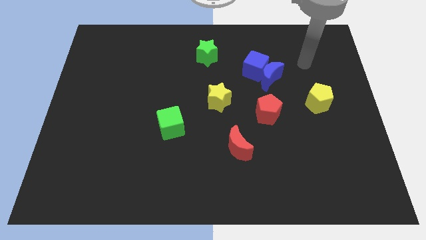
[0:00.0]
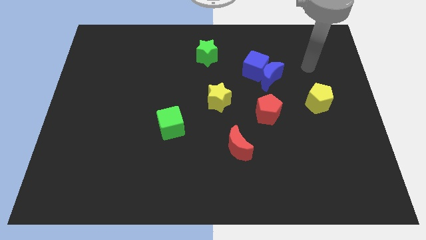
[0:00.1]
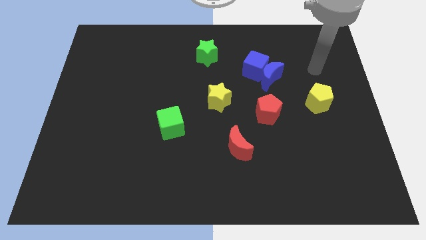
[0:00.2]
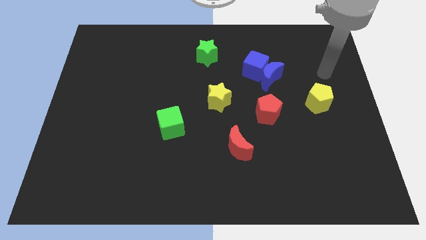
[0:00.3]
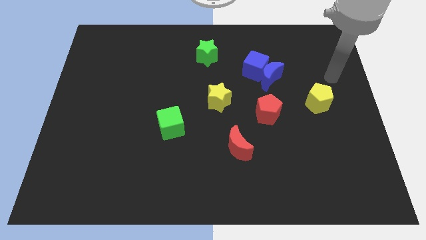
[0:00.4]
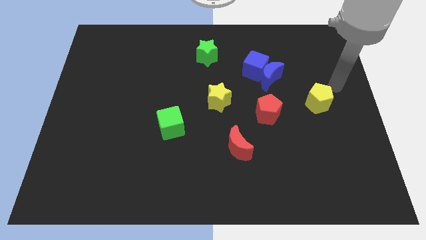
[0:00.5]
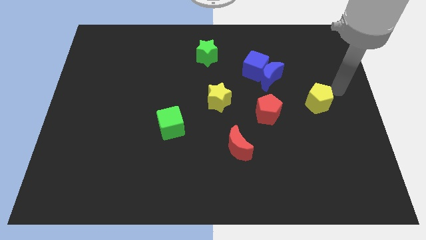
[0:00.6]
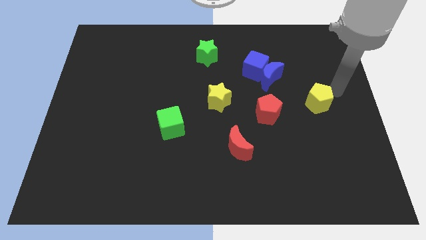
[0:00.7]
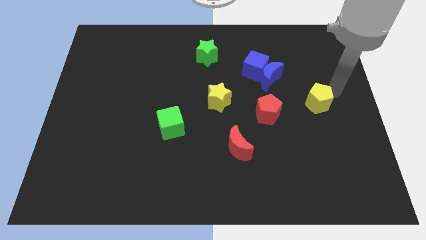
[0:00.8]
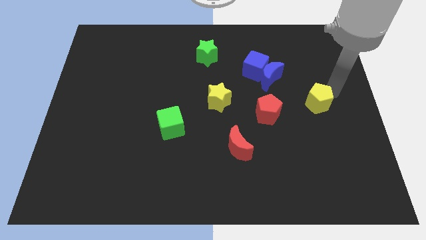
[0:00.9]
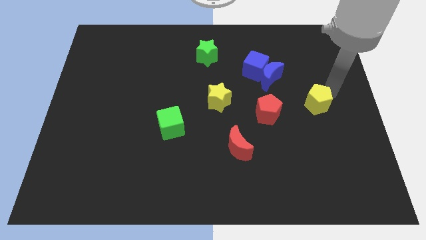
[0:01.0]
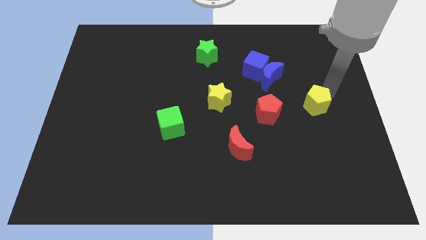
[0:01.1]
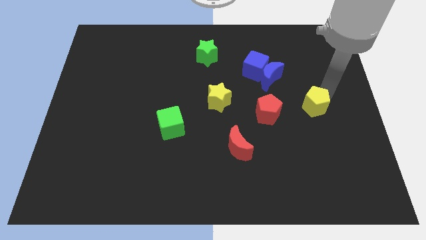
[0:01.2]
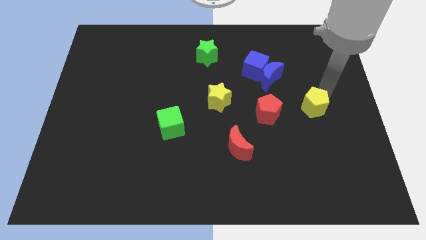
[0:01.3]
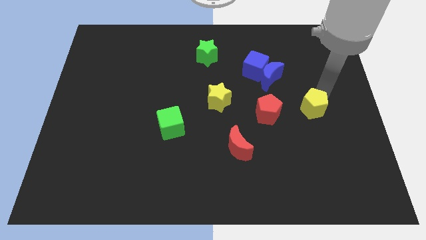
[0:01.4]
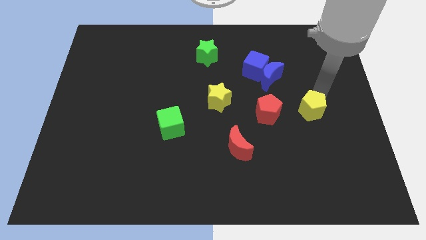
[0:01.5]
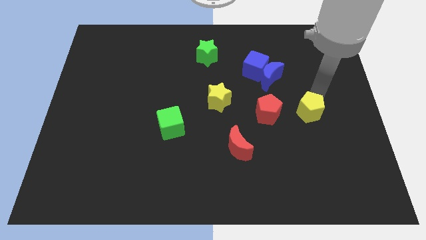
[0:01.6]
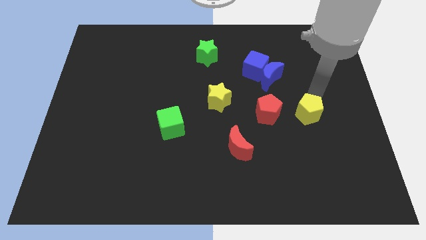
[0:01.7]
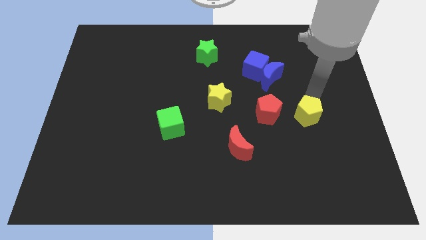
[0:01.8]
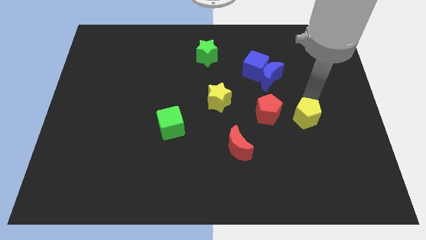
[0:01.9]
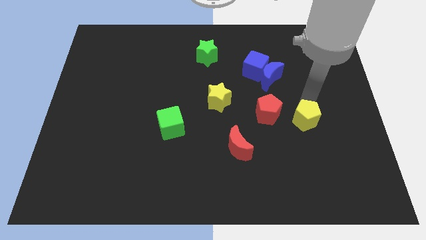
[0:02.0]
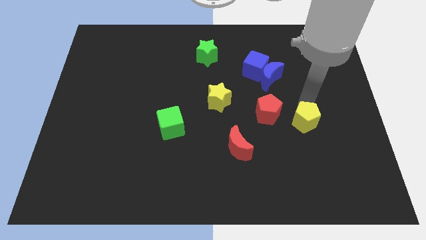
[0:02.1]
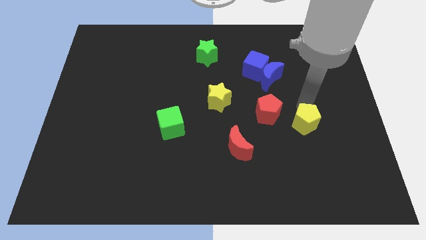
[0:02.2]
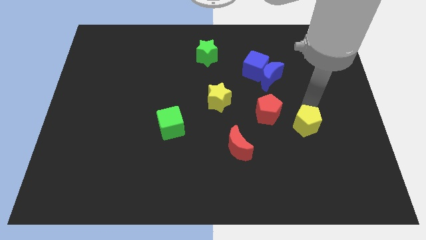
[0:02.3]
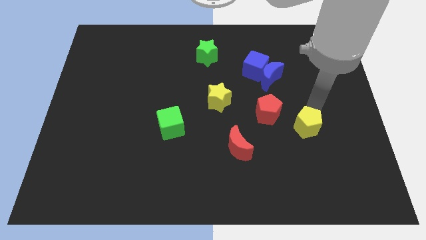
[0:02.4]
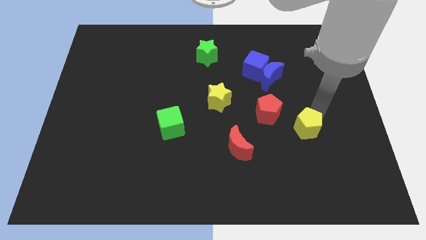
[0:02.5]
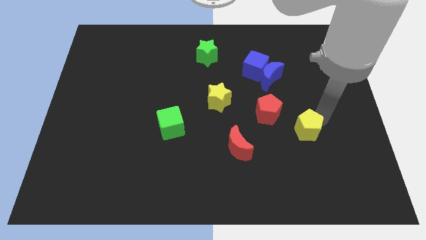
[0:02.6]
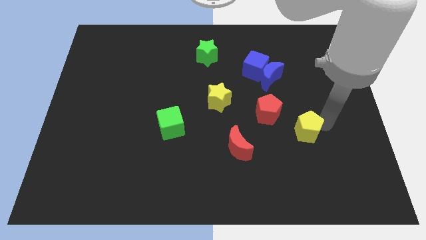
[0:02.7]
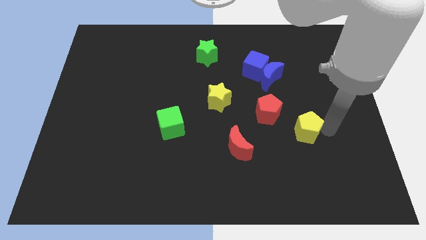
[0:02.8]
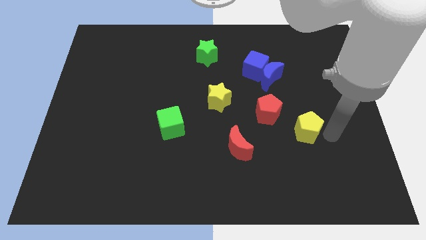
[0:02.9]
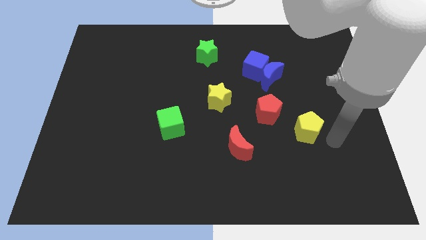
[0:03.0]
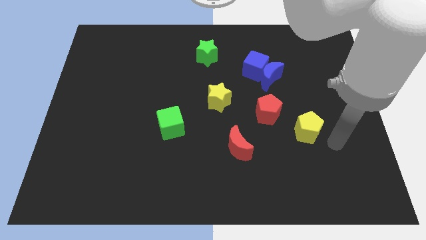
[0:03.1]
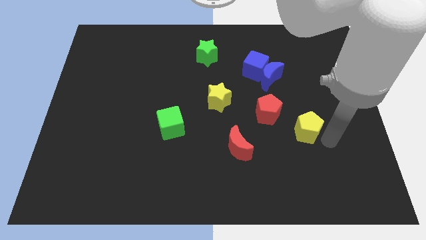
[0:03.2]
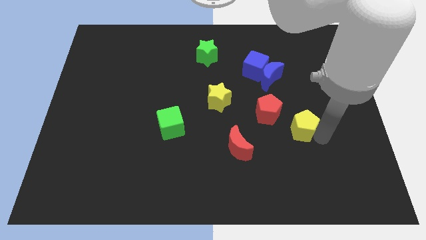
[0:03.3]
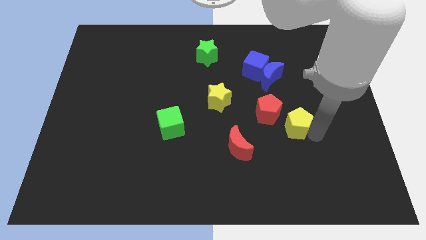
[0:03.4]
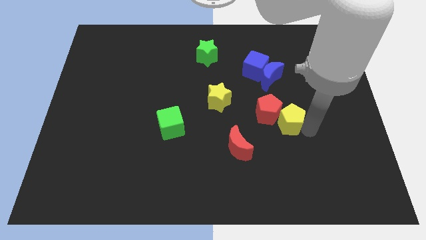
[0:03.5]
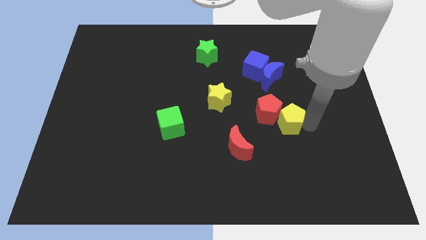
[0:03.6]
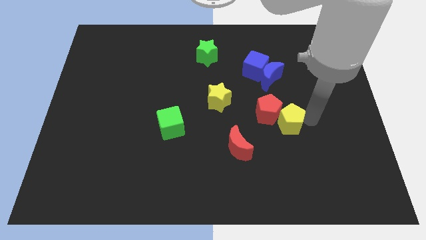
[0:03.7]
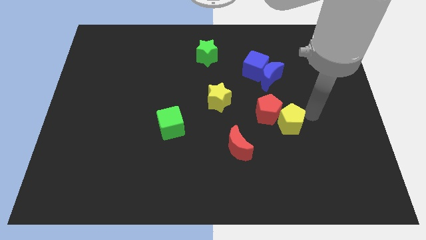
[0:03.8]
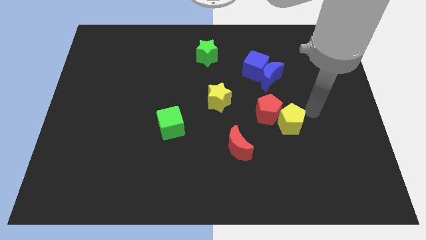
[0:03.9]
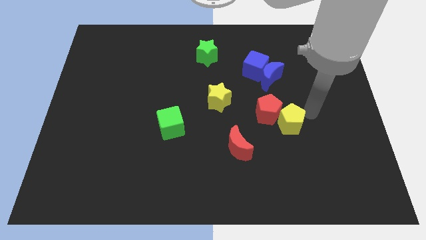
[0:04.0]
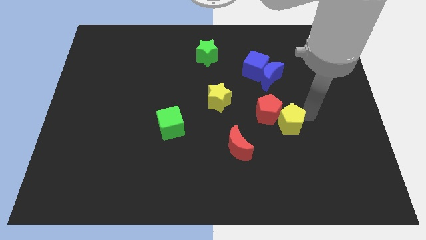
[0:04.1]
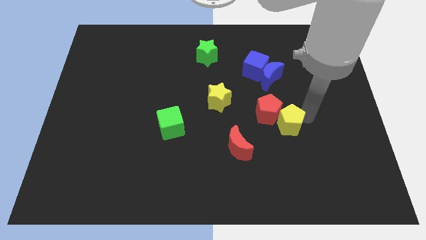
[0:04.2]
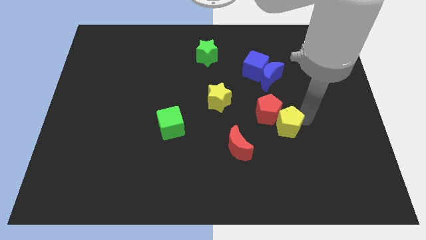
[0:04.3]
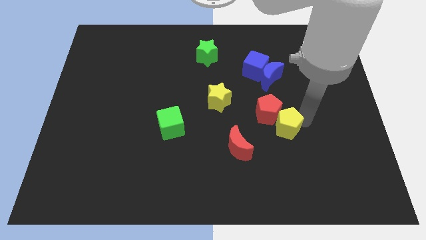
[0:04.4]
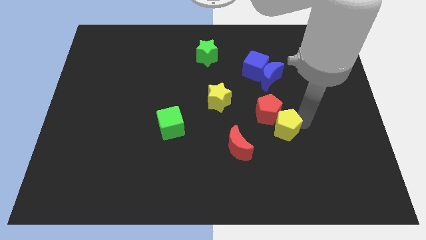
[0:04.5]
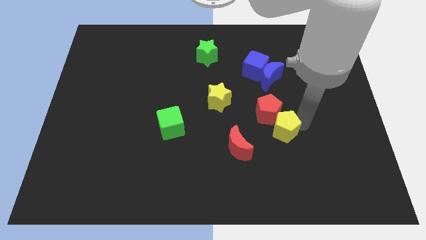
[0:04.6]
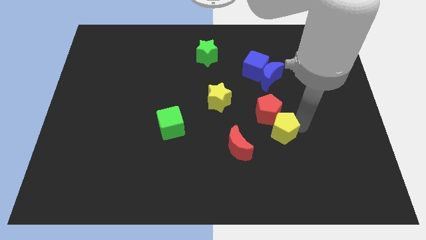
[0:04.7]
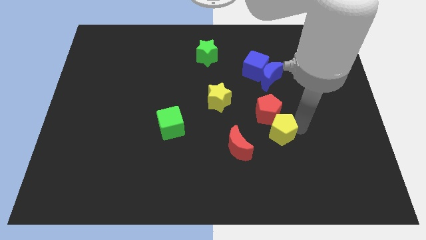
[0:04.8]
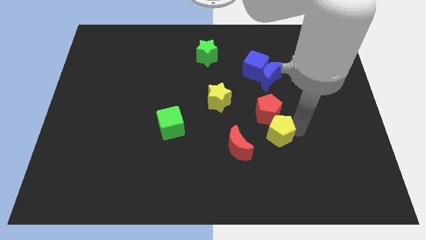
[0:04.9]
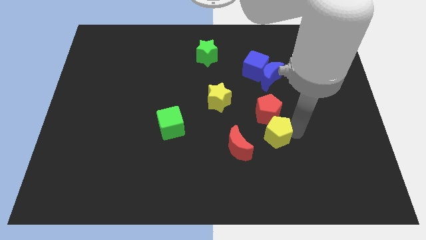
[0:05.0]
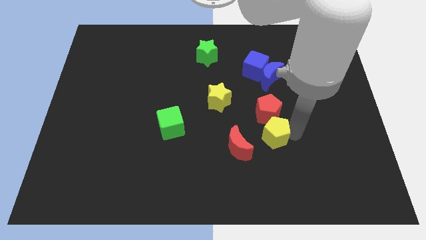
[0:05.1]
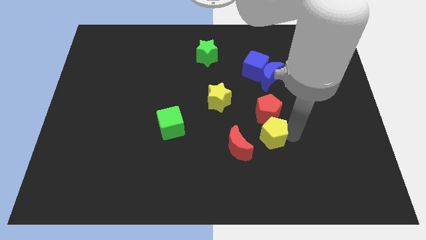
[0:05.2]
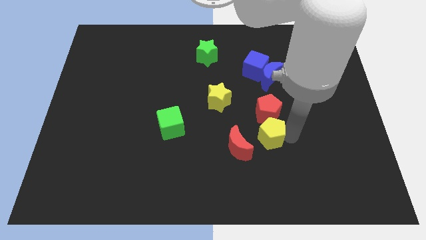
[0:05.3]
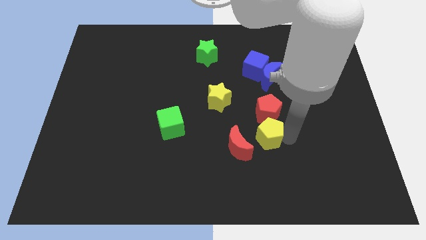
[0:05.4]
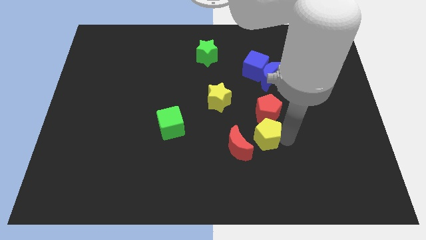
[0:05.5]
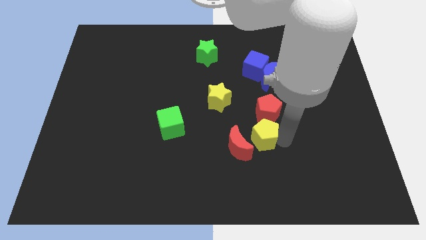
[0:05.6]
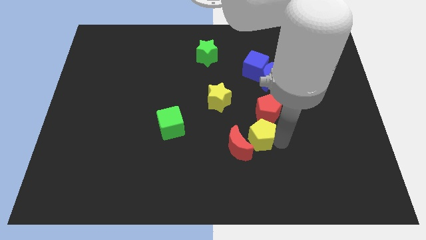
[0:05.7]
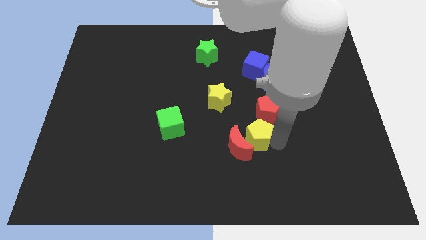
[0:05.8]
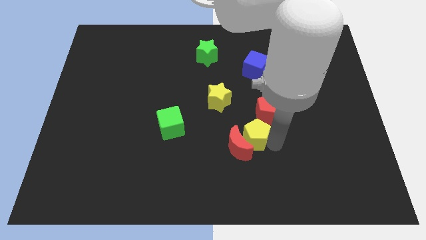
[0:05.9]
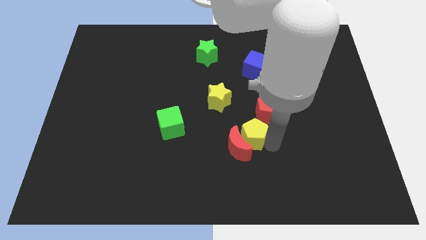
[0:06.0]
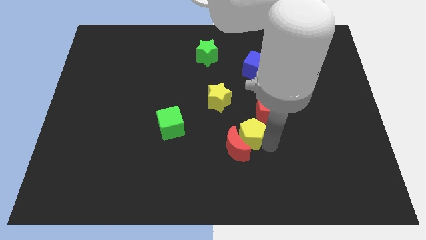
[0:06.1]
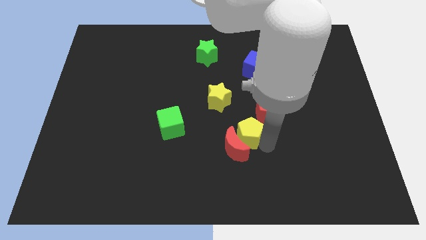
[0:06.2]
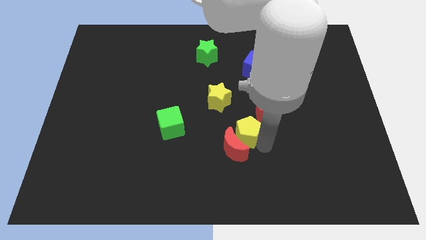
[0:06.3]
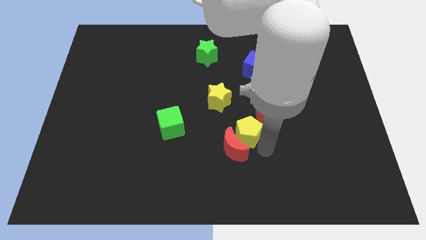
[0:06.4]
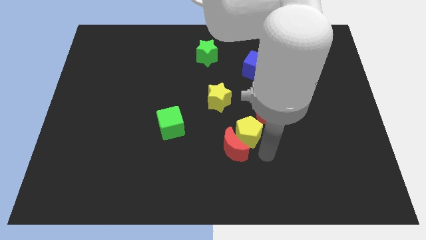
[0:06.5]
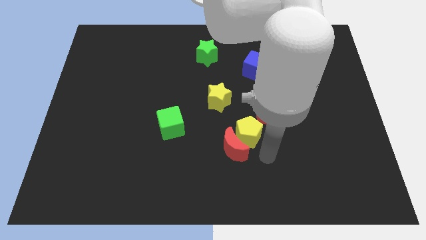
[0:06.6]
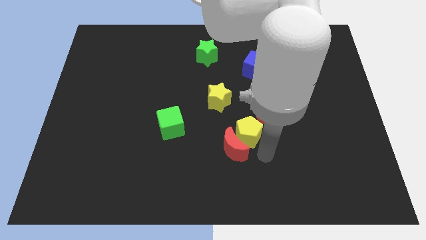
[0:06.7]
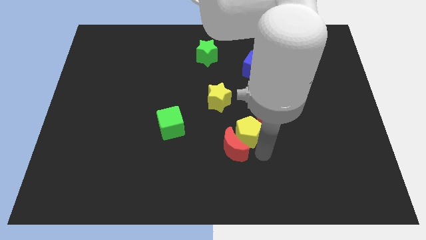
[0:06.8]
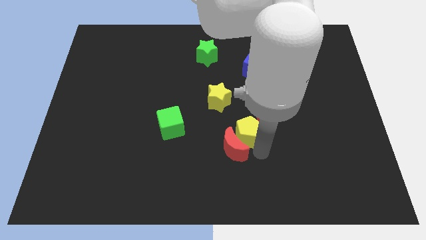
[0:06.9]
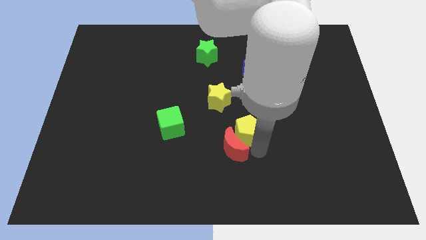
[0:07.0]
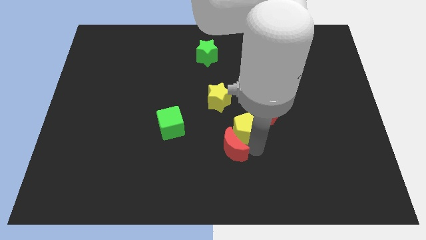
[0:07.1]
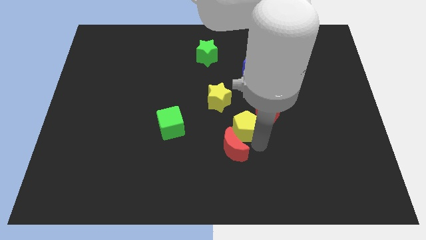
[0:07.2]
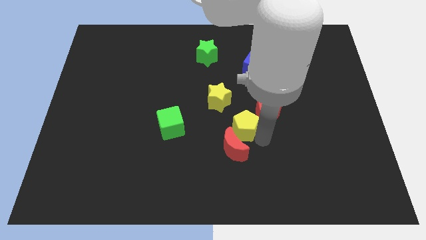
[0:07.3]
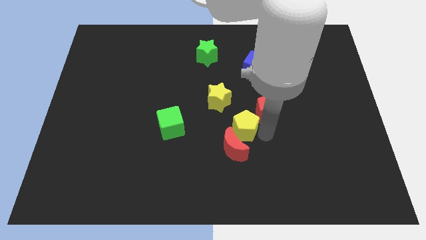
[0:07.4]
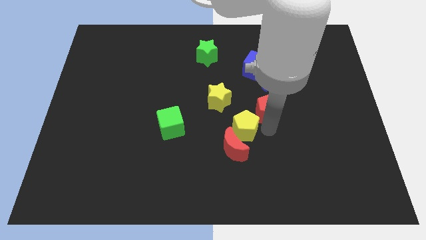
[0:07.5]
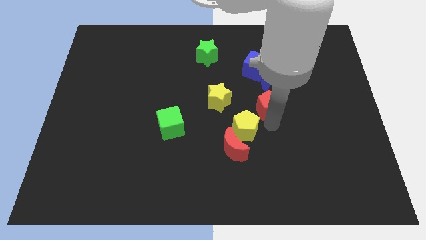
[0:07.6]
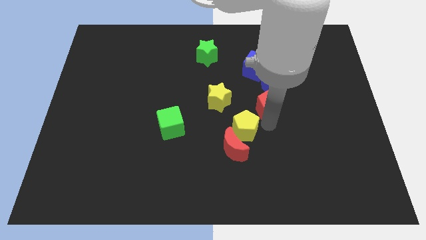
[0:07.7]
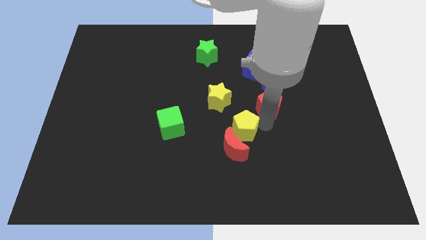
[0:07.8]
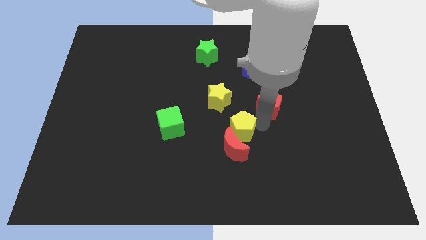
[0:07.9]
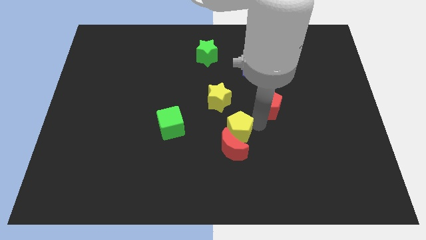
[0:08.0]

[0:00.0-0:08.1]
push the yellow pentagon to the bottom side of the yellow star
